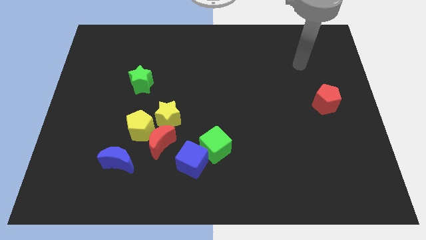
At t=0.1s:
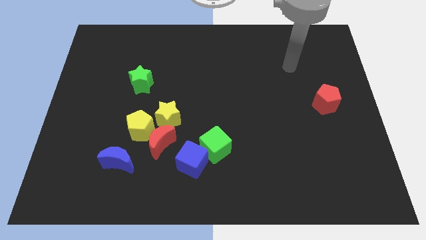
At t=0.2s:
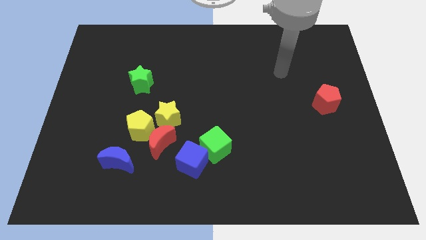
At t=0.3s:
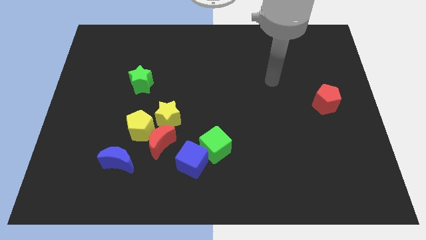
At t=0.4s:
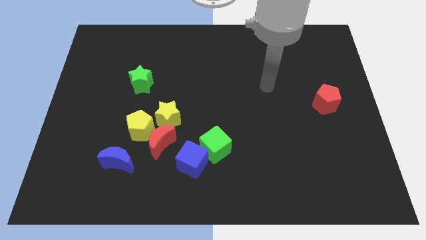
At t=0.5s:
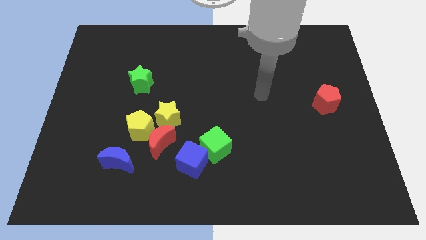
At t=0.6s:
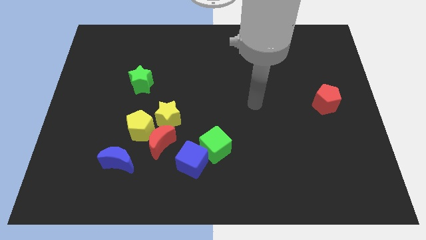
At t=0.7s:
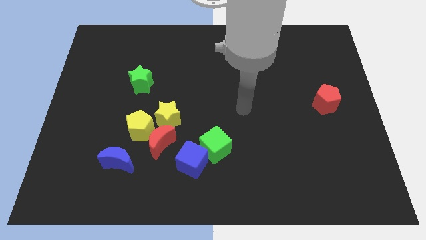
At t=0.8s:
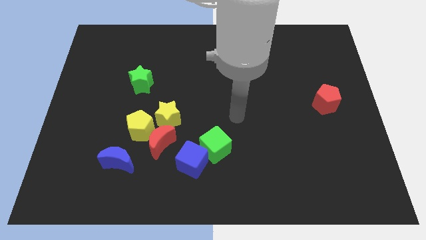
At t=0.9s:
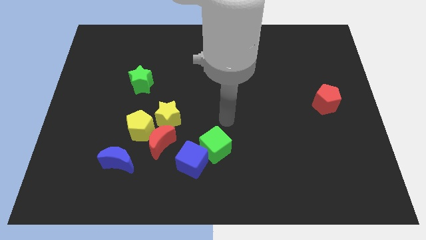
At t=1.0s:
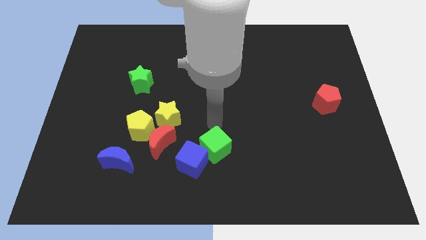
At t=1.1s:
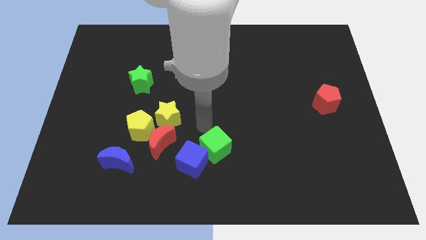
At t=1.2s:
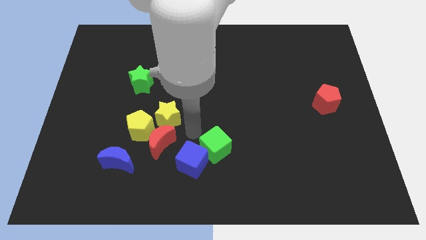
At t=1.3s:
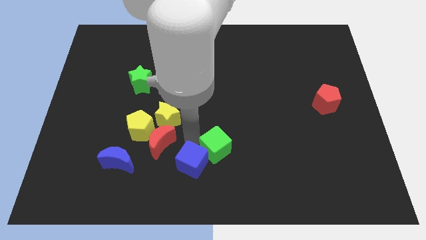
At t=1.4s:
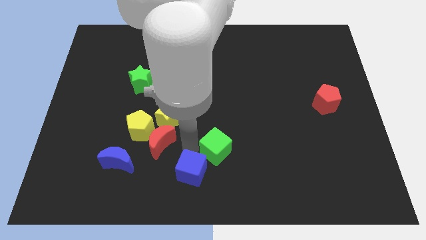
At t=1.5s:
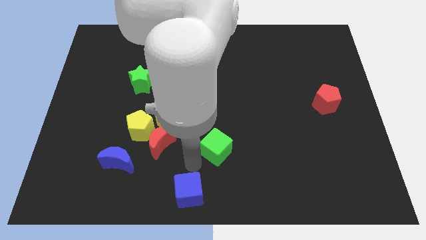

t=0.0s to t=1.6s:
separate the green cube from the blue cube

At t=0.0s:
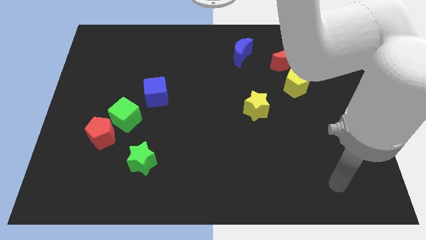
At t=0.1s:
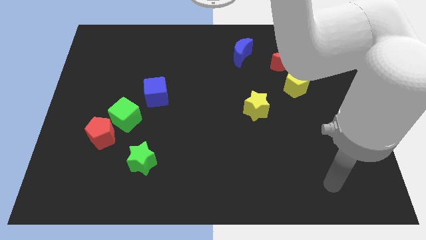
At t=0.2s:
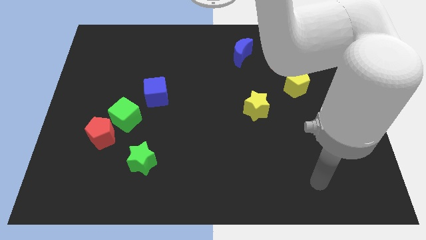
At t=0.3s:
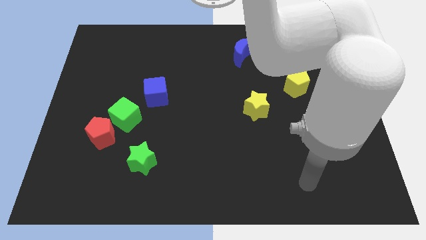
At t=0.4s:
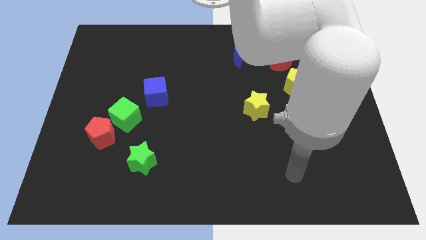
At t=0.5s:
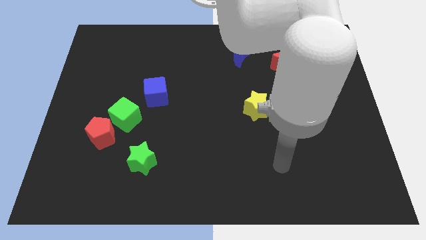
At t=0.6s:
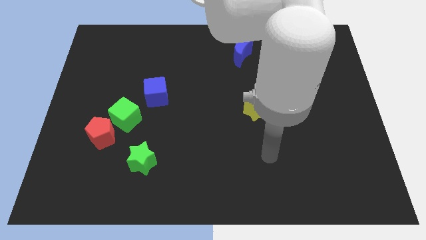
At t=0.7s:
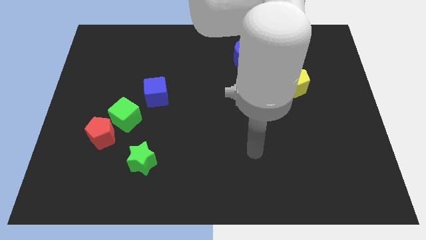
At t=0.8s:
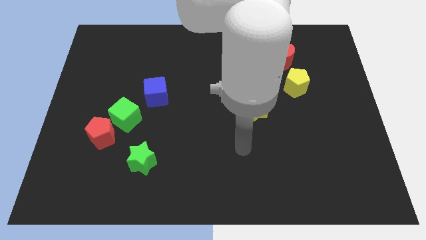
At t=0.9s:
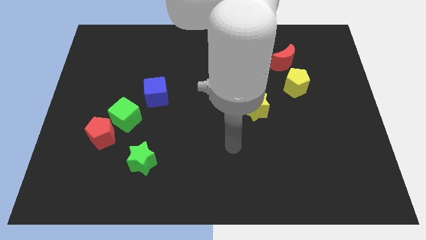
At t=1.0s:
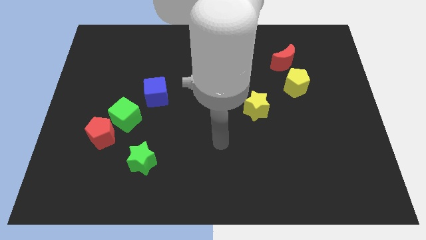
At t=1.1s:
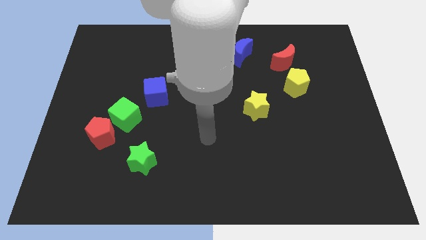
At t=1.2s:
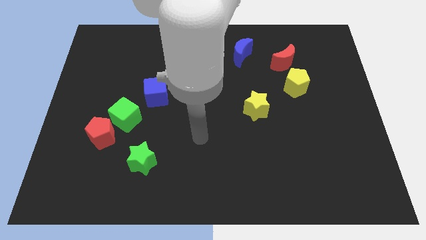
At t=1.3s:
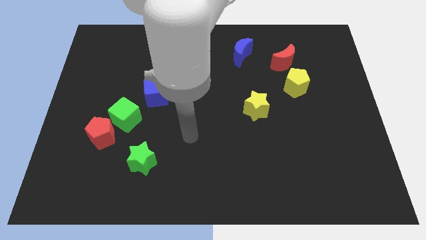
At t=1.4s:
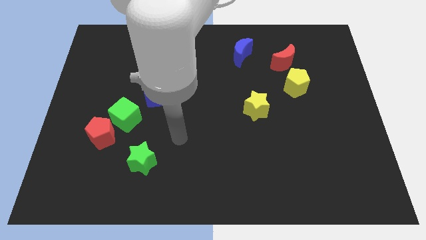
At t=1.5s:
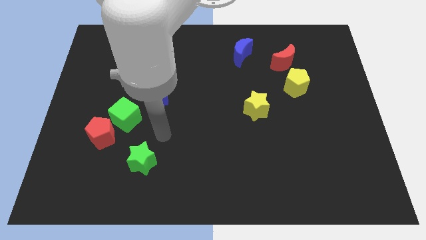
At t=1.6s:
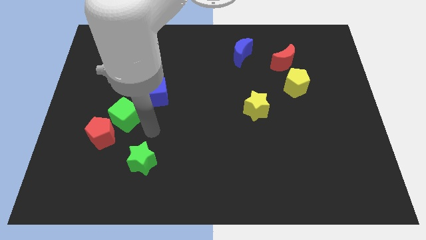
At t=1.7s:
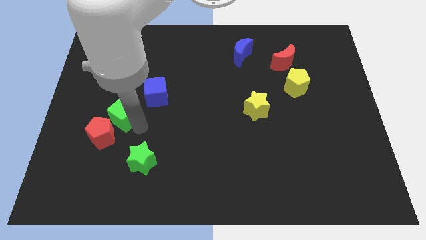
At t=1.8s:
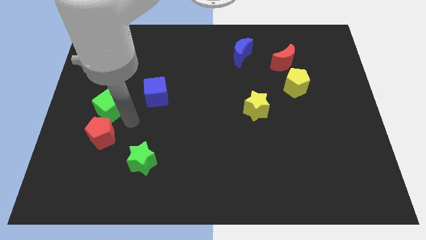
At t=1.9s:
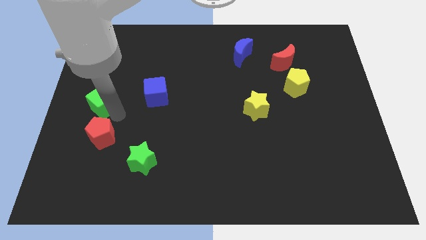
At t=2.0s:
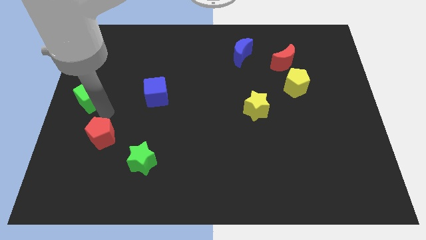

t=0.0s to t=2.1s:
move the red pentagon away from the green cube

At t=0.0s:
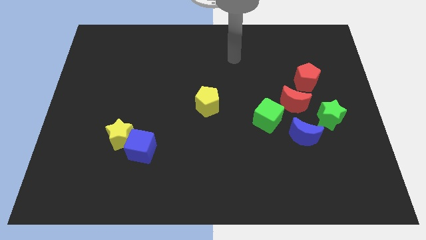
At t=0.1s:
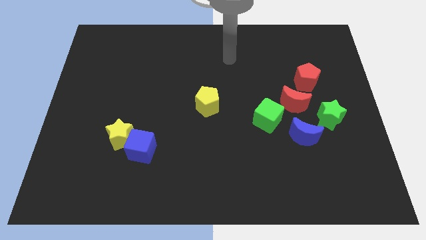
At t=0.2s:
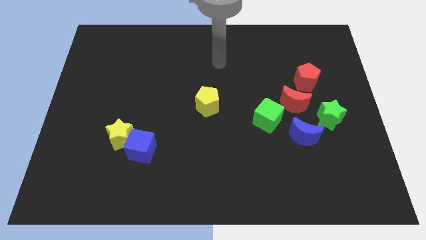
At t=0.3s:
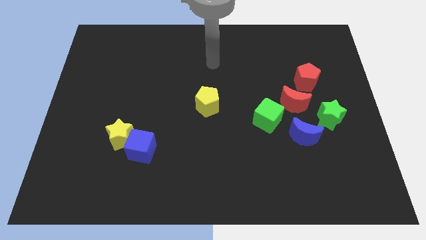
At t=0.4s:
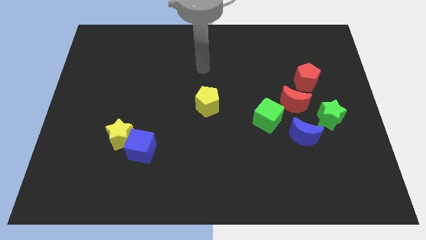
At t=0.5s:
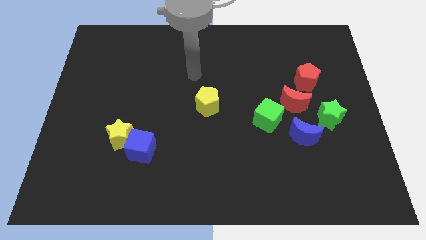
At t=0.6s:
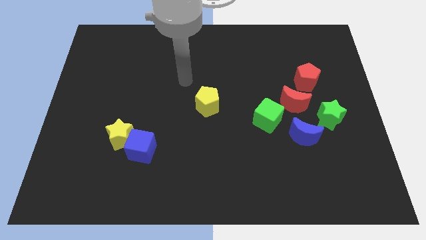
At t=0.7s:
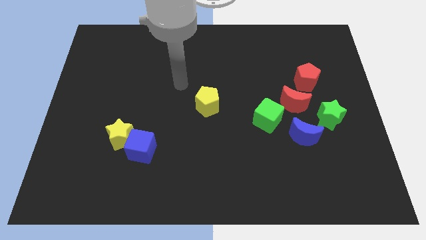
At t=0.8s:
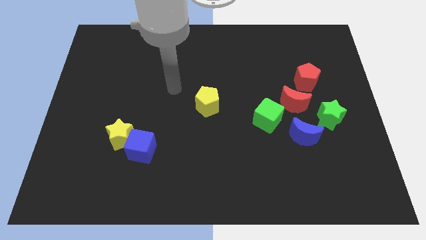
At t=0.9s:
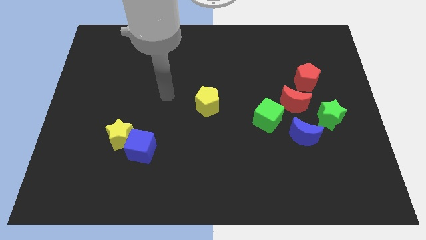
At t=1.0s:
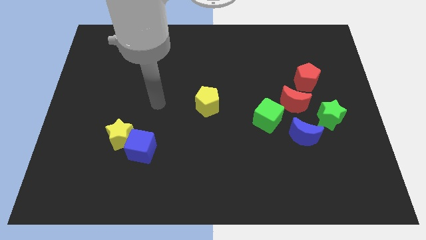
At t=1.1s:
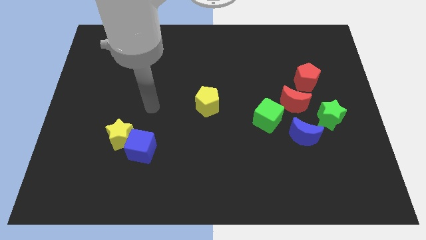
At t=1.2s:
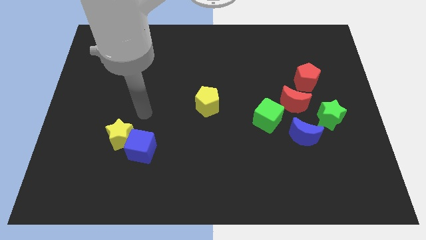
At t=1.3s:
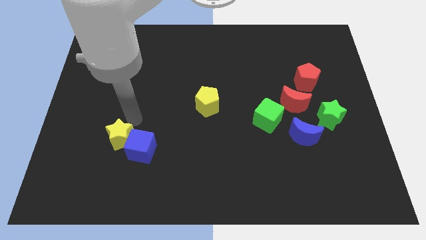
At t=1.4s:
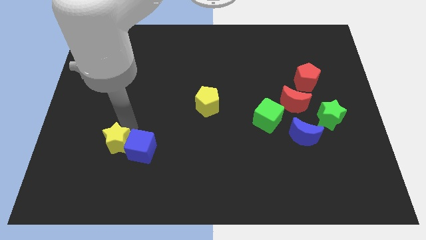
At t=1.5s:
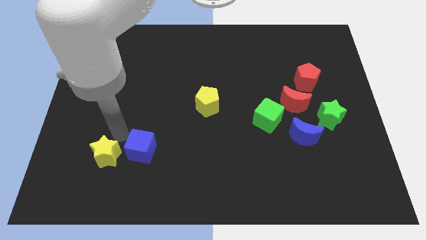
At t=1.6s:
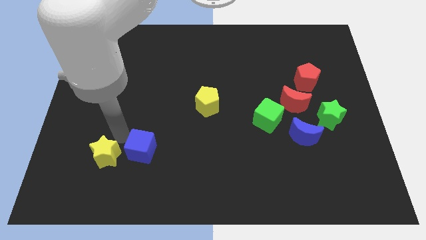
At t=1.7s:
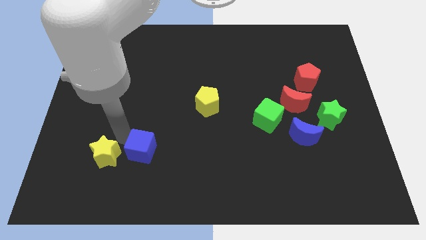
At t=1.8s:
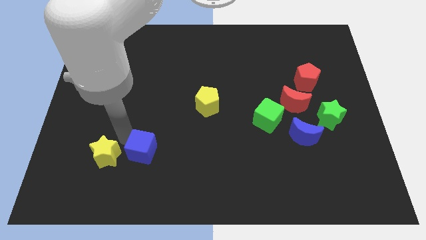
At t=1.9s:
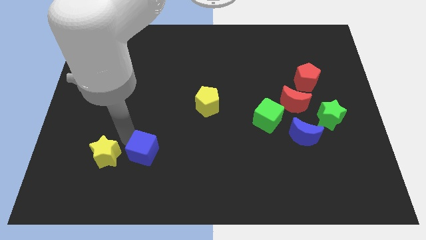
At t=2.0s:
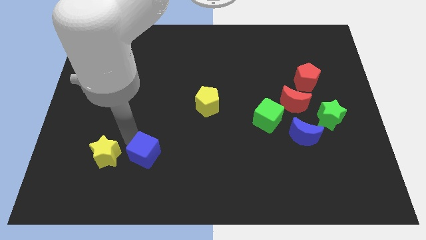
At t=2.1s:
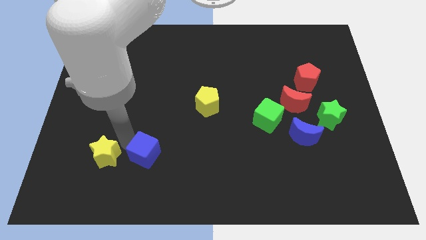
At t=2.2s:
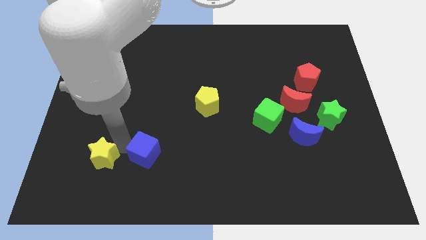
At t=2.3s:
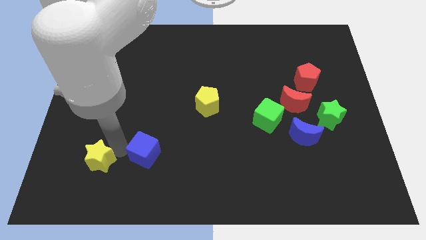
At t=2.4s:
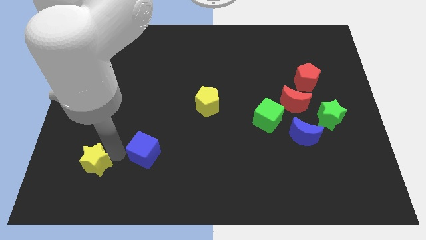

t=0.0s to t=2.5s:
separate the blue cube from the yellow star

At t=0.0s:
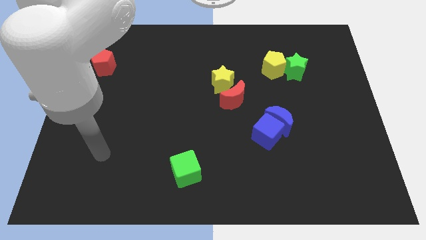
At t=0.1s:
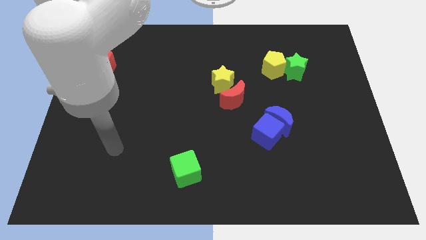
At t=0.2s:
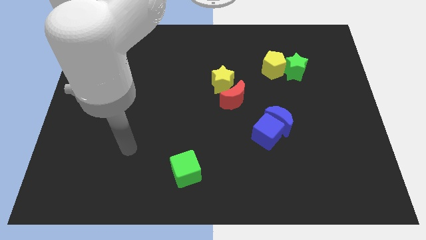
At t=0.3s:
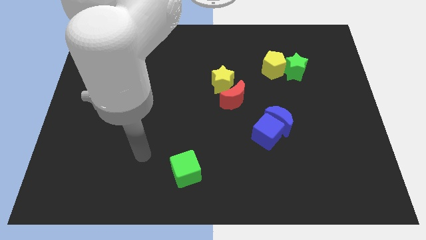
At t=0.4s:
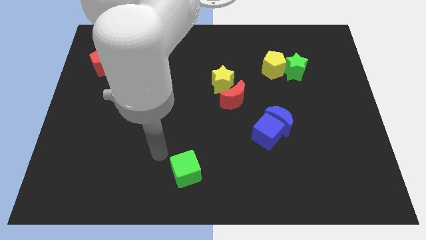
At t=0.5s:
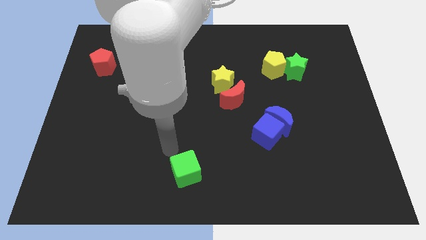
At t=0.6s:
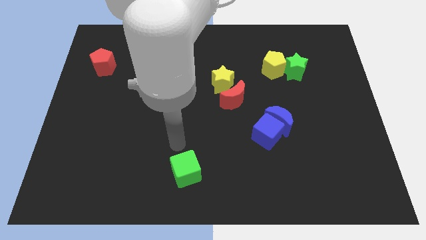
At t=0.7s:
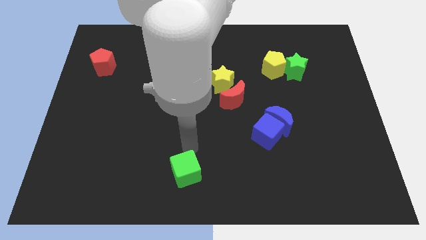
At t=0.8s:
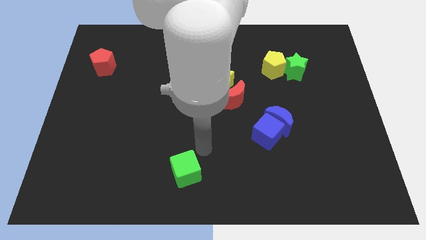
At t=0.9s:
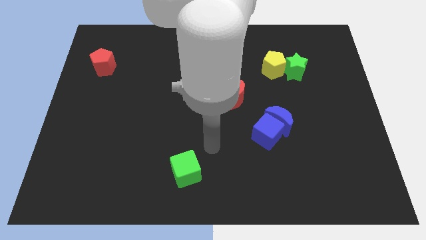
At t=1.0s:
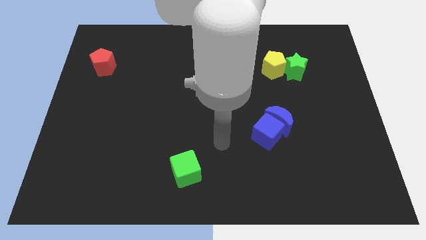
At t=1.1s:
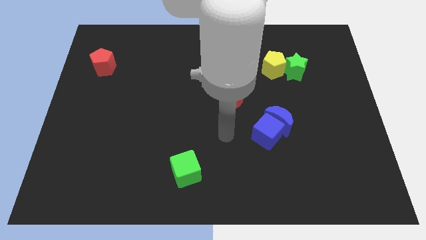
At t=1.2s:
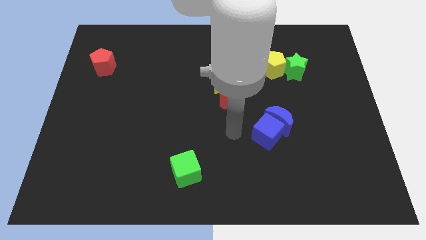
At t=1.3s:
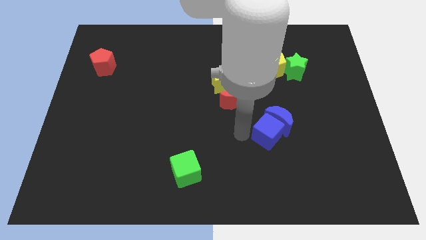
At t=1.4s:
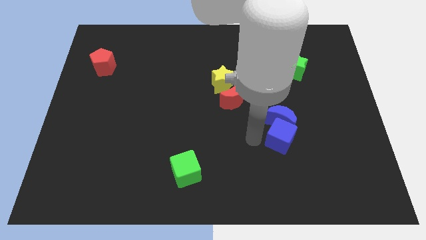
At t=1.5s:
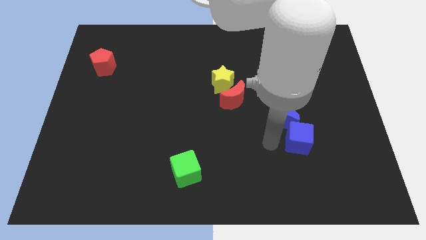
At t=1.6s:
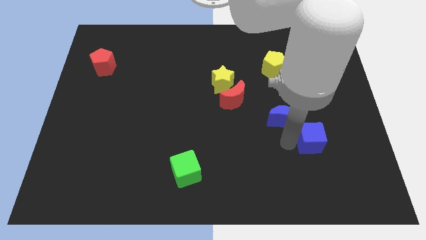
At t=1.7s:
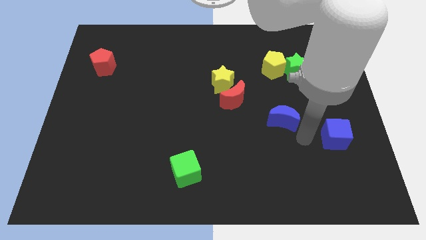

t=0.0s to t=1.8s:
separate the blue moon from the blue cube

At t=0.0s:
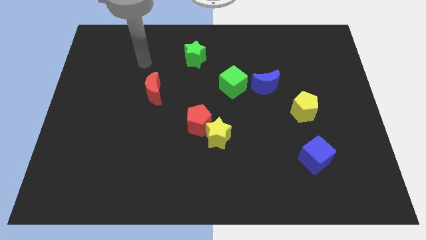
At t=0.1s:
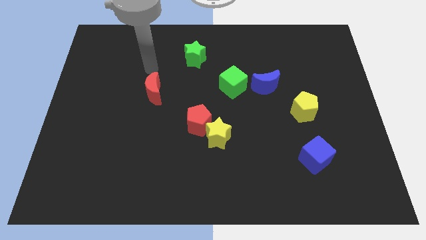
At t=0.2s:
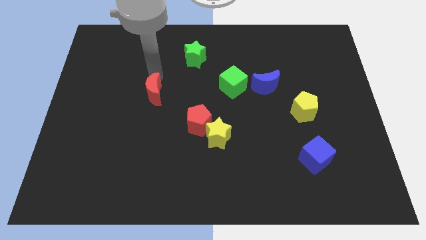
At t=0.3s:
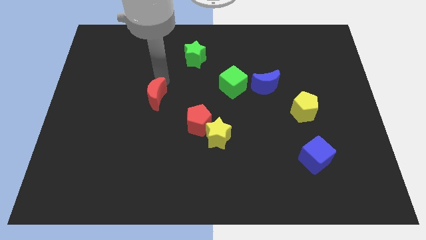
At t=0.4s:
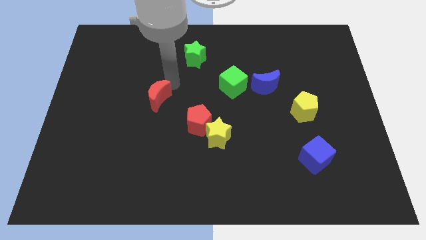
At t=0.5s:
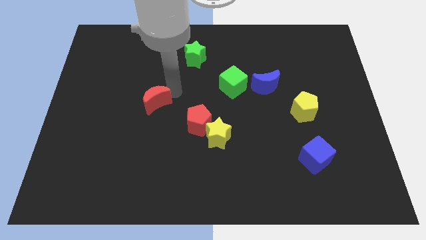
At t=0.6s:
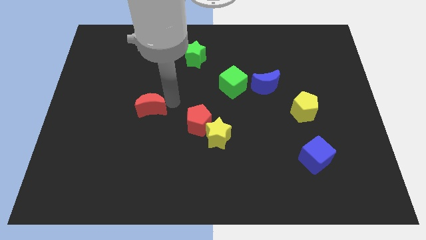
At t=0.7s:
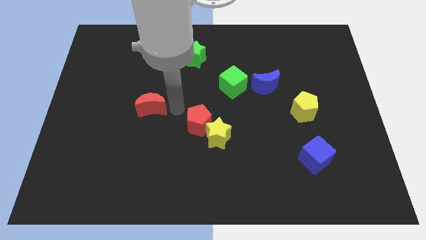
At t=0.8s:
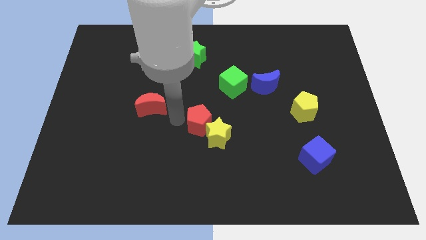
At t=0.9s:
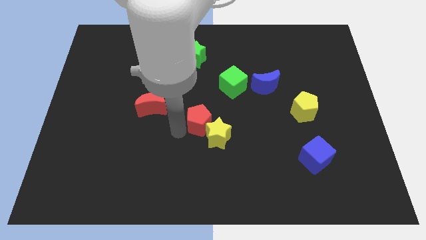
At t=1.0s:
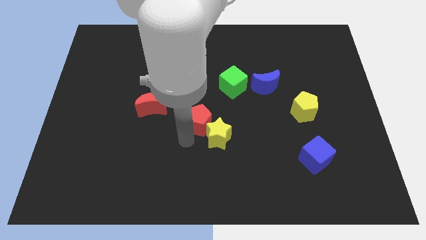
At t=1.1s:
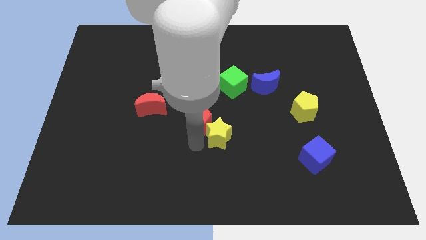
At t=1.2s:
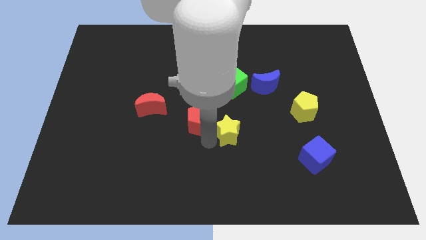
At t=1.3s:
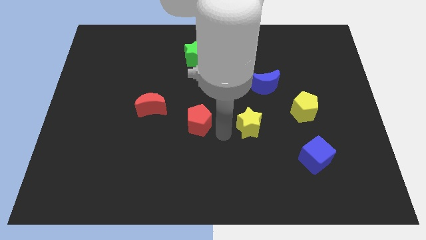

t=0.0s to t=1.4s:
pull the red pentagon apart from the yellow star
